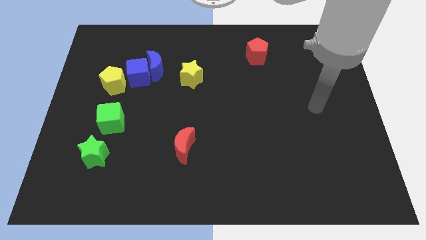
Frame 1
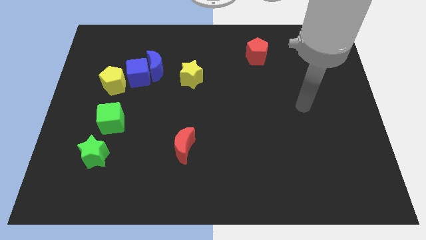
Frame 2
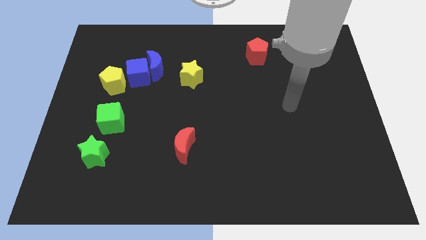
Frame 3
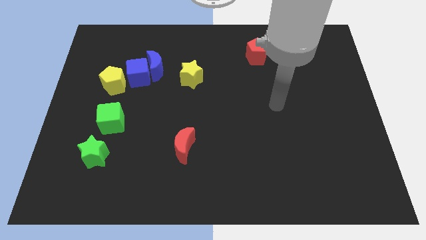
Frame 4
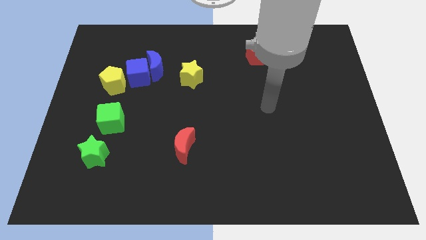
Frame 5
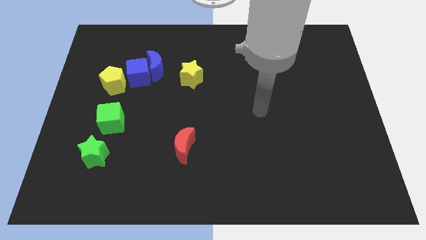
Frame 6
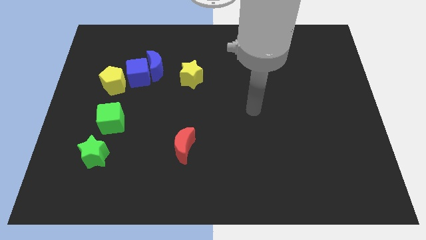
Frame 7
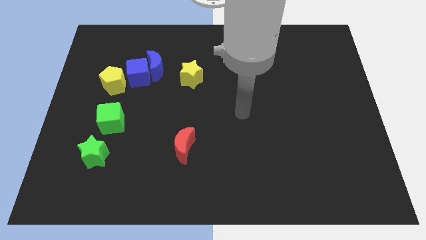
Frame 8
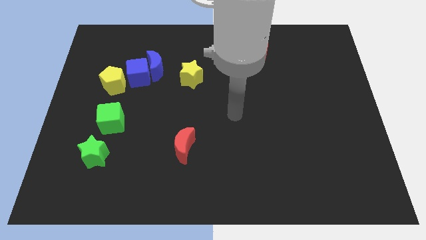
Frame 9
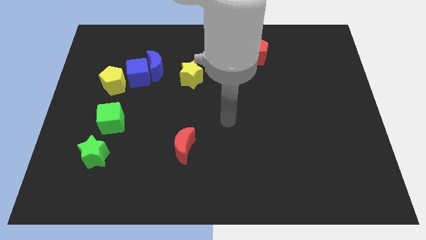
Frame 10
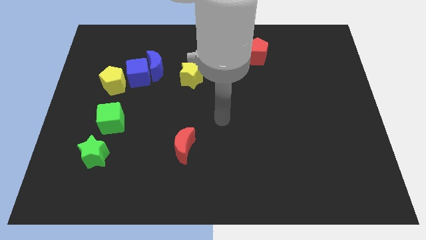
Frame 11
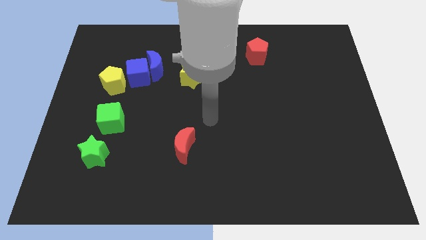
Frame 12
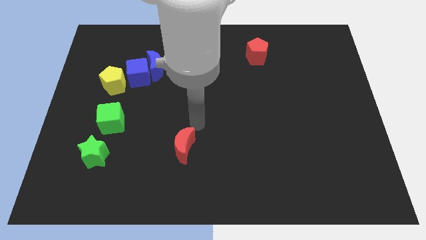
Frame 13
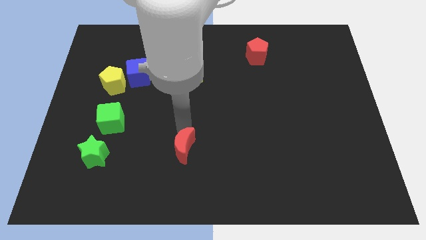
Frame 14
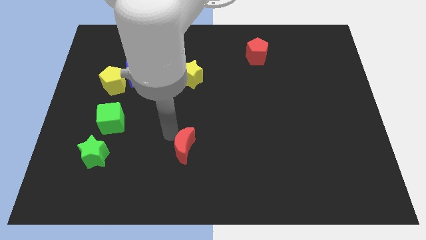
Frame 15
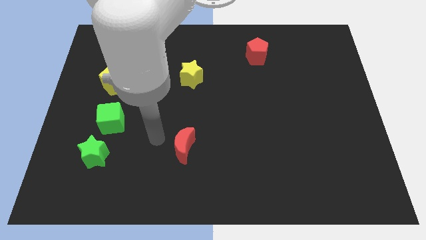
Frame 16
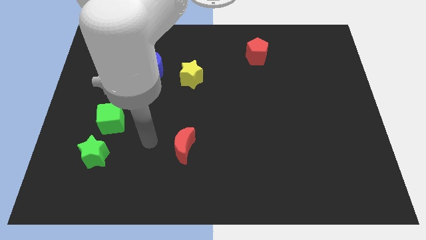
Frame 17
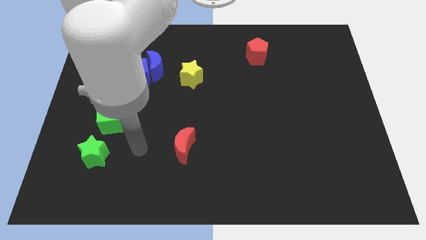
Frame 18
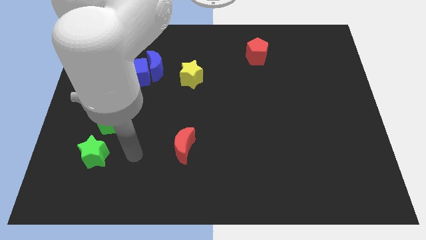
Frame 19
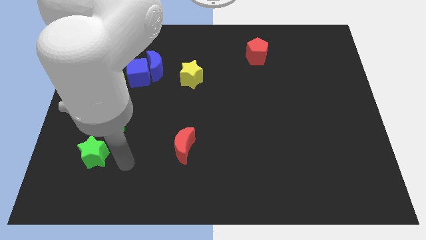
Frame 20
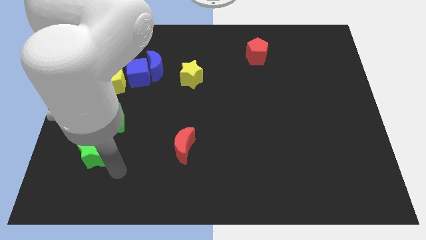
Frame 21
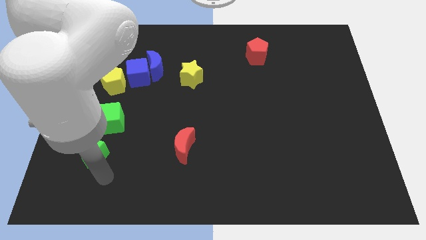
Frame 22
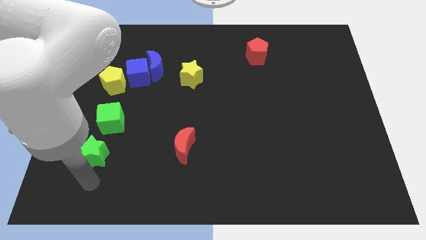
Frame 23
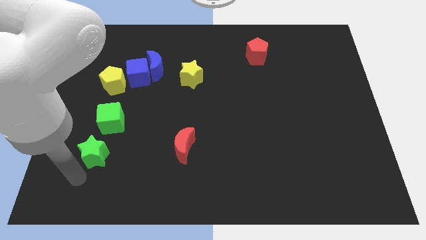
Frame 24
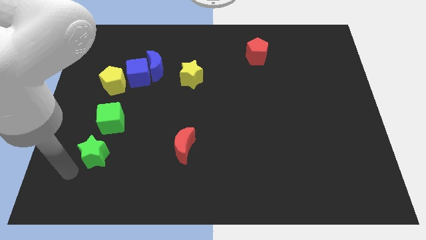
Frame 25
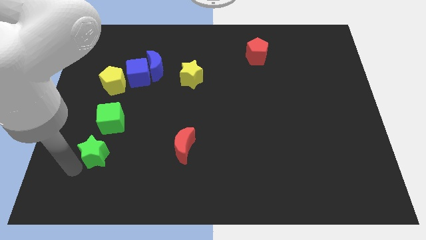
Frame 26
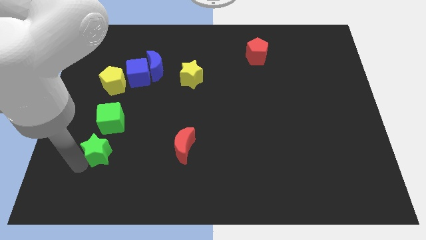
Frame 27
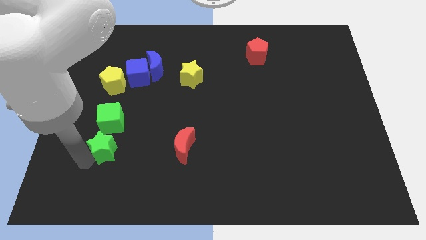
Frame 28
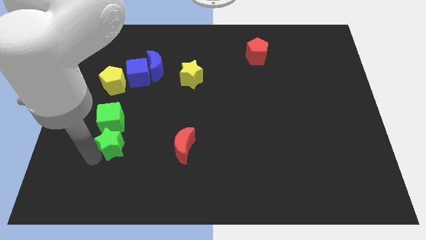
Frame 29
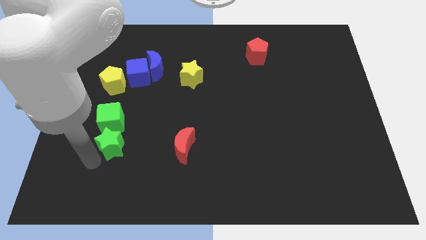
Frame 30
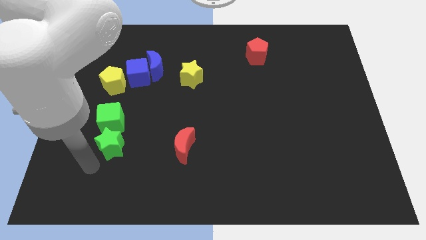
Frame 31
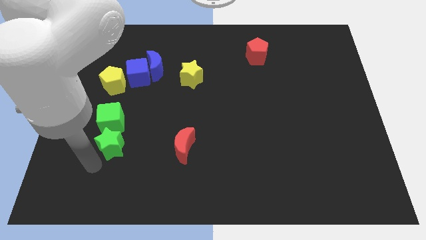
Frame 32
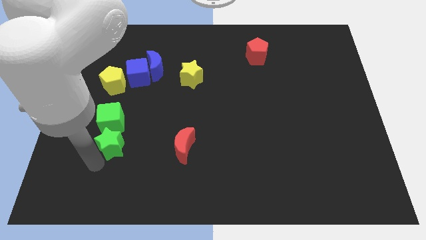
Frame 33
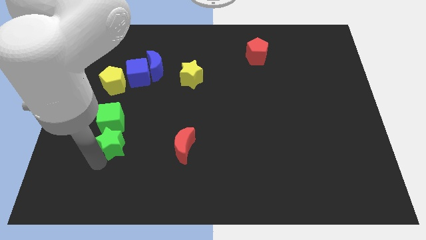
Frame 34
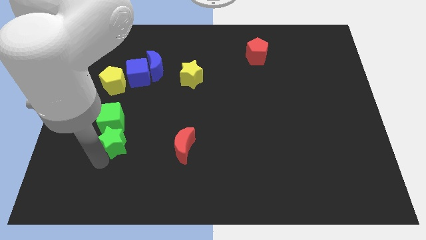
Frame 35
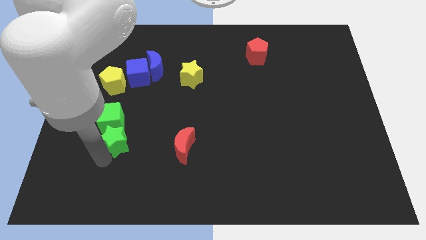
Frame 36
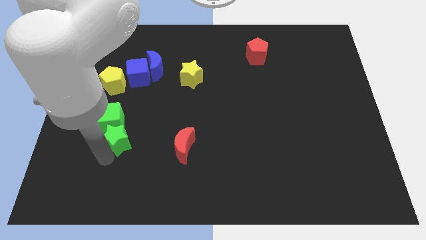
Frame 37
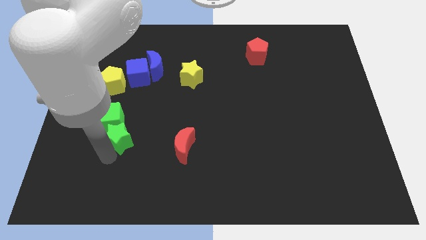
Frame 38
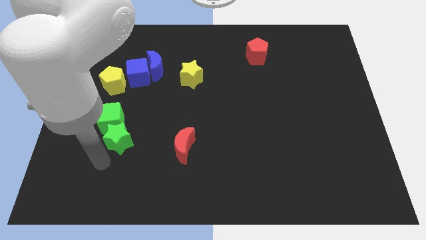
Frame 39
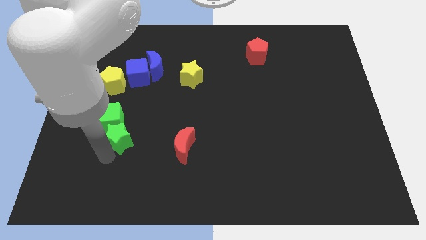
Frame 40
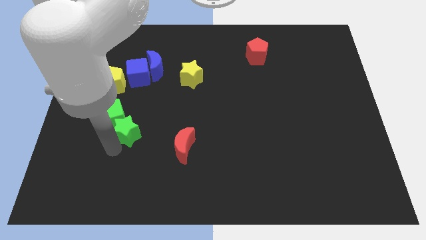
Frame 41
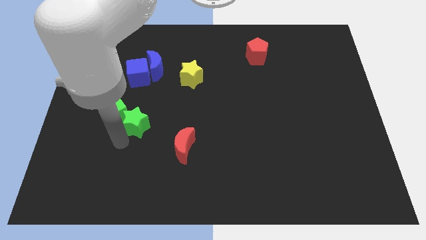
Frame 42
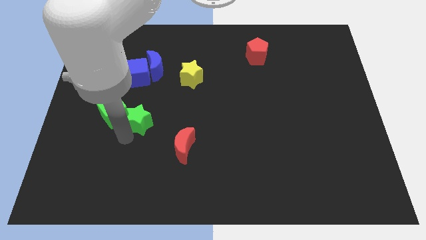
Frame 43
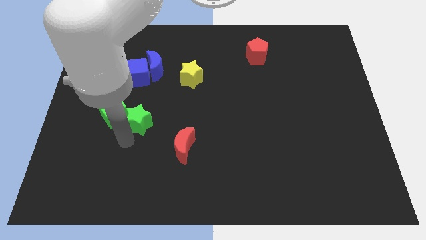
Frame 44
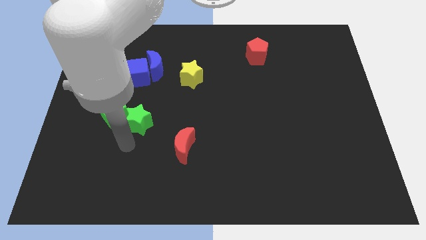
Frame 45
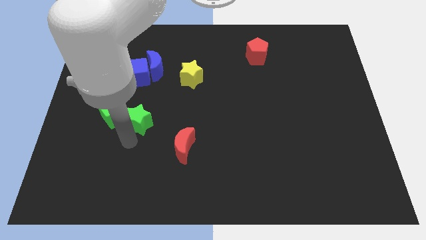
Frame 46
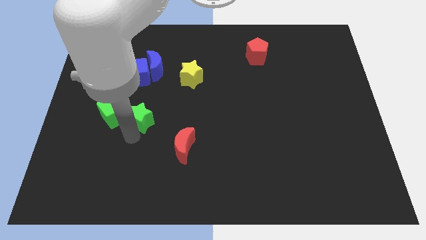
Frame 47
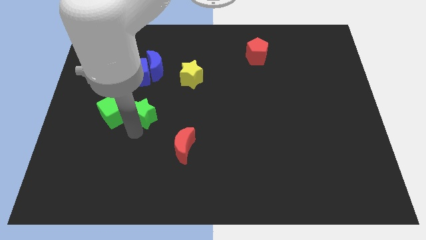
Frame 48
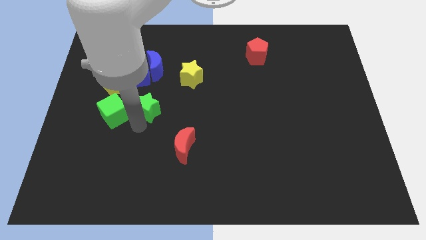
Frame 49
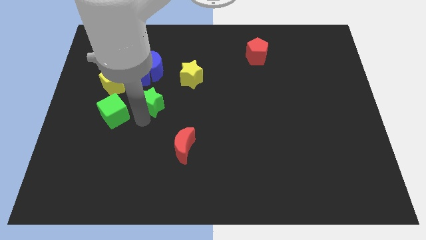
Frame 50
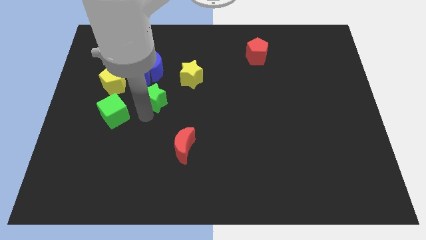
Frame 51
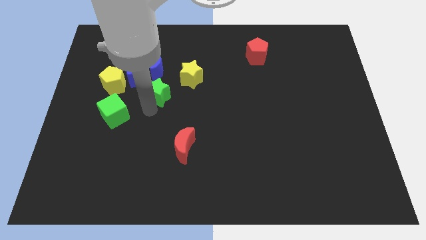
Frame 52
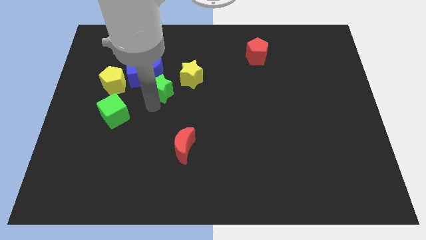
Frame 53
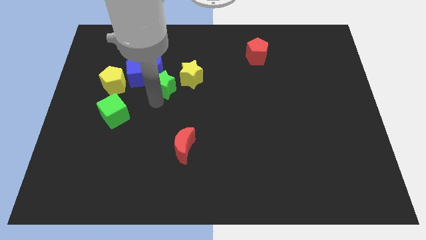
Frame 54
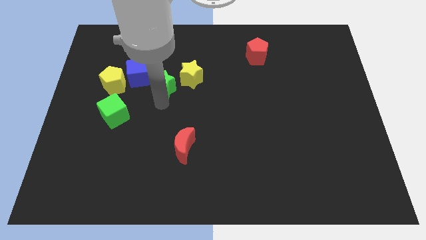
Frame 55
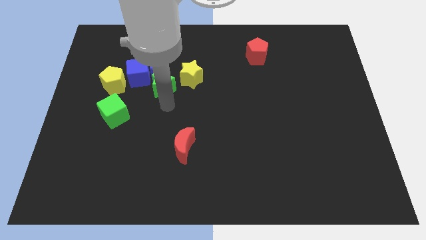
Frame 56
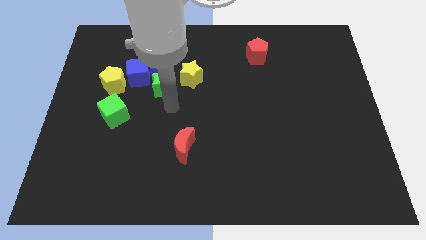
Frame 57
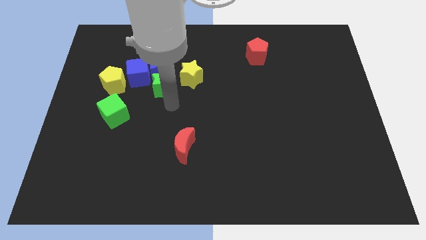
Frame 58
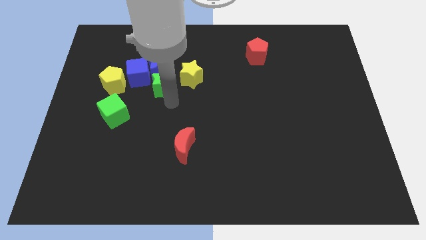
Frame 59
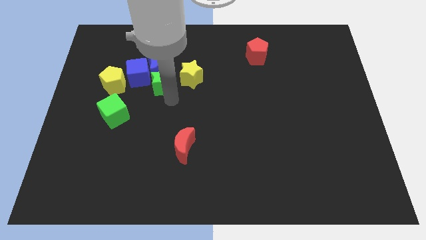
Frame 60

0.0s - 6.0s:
move the green star close to the blue moon

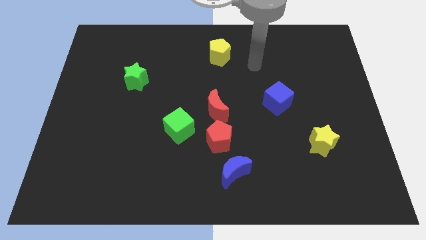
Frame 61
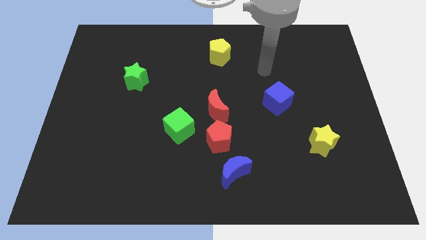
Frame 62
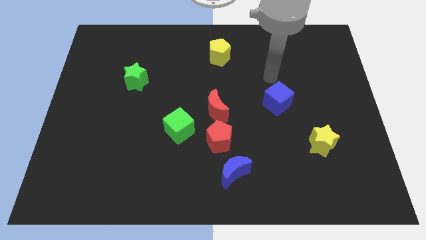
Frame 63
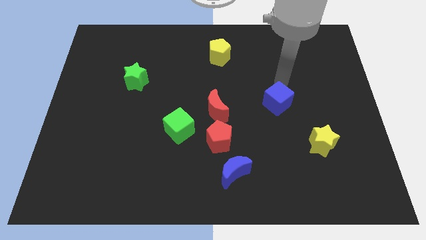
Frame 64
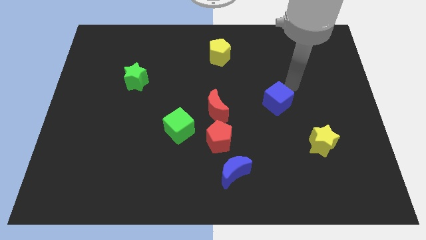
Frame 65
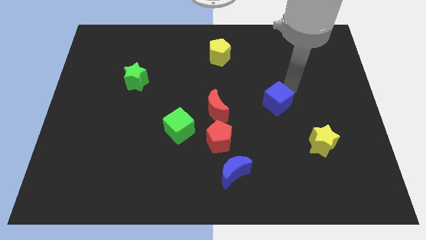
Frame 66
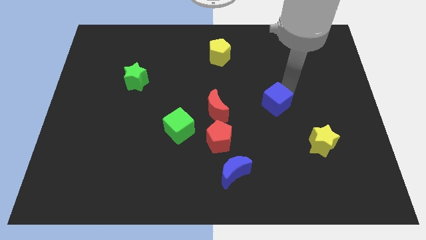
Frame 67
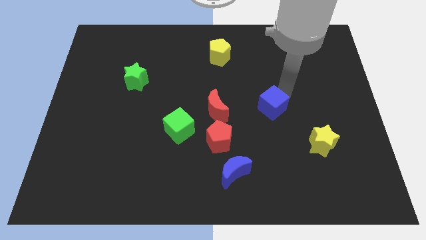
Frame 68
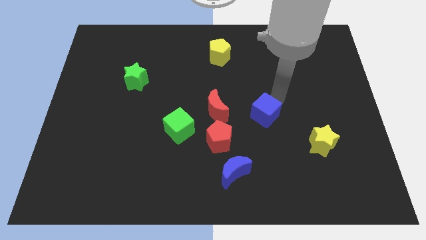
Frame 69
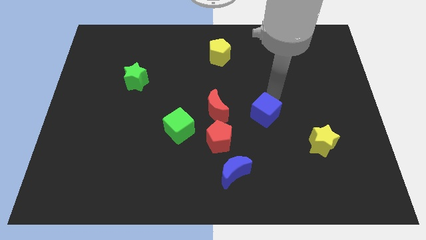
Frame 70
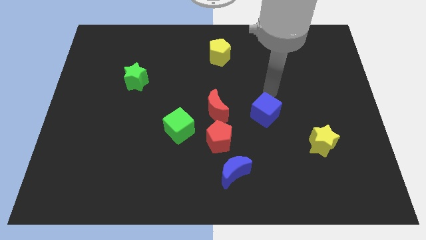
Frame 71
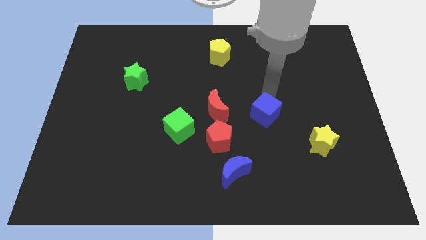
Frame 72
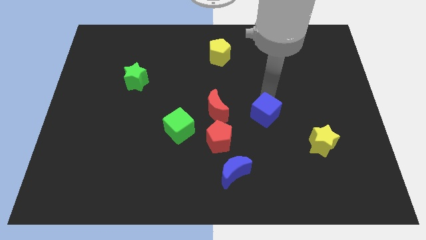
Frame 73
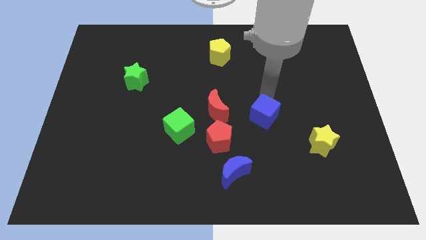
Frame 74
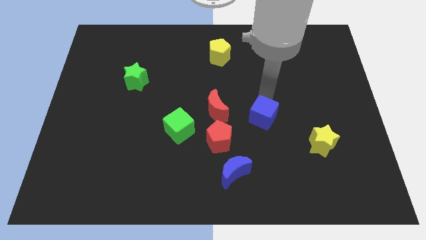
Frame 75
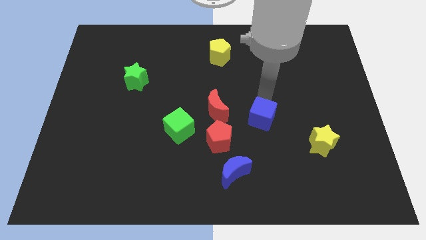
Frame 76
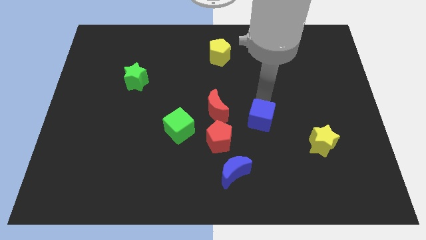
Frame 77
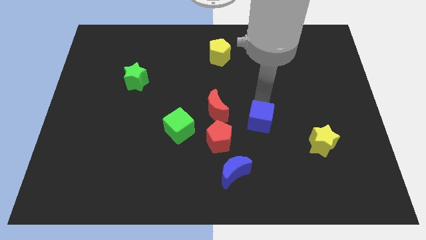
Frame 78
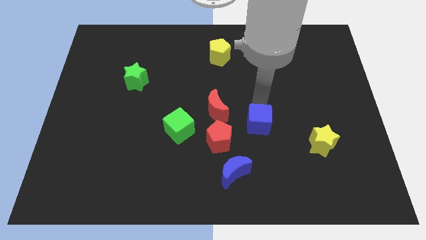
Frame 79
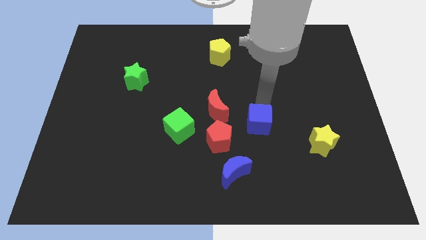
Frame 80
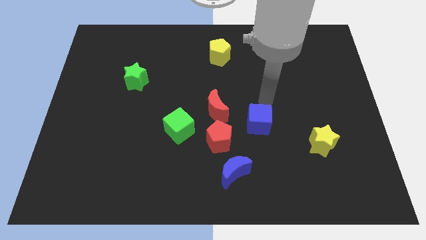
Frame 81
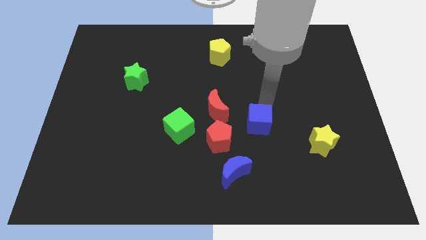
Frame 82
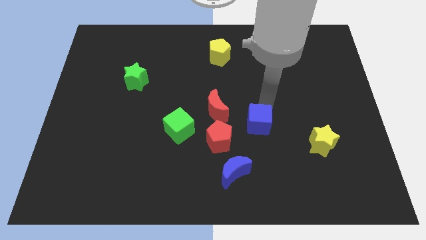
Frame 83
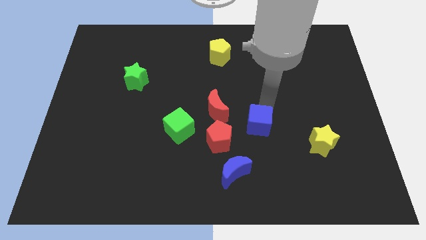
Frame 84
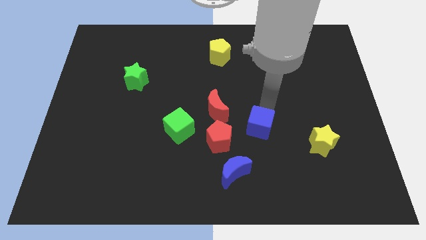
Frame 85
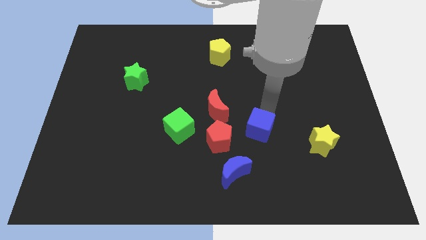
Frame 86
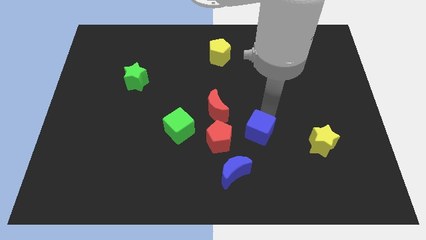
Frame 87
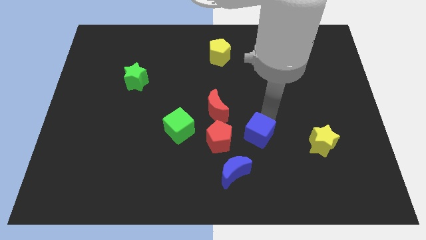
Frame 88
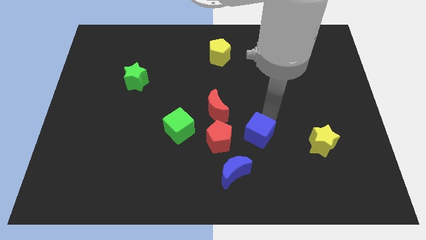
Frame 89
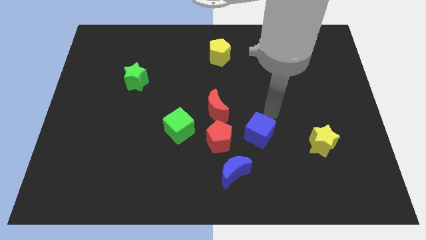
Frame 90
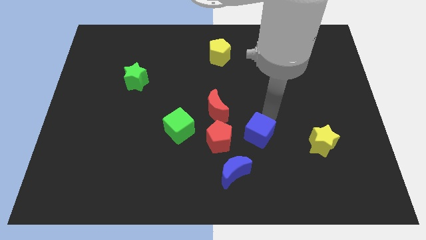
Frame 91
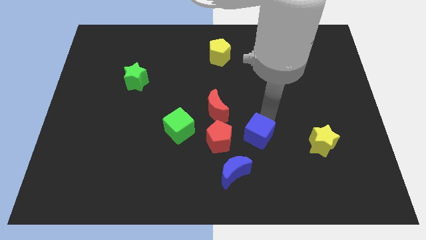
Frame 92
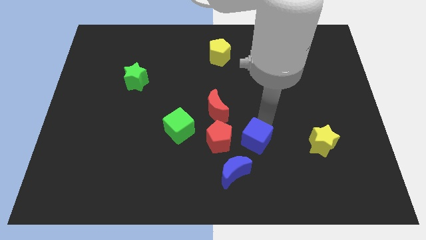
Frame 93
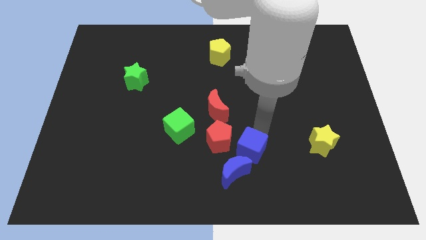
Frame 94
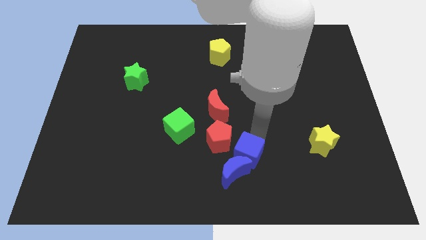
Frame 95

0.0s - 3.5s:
put the blue cube close to the blue moon
